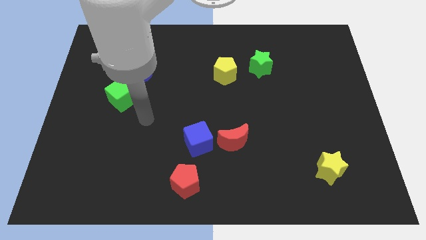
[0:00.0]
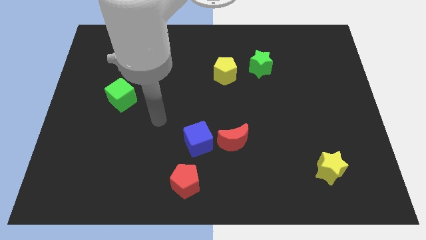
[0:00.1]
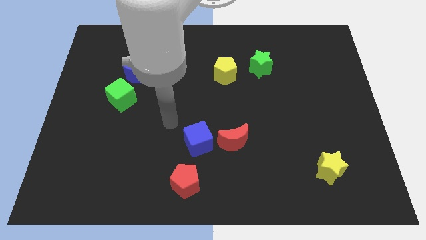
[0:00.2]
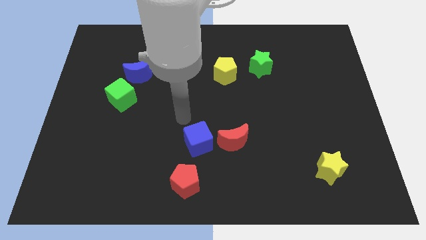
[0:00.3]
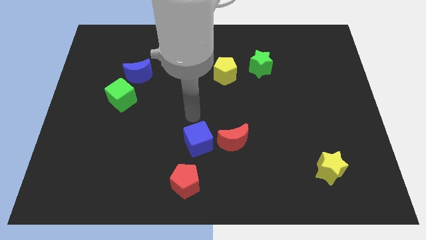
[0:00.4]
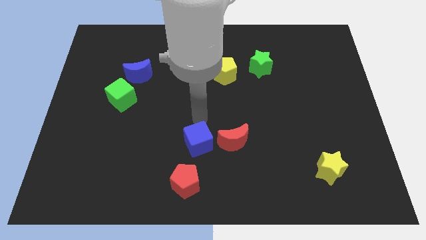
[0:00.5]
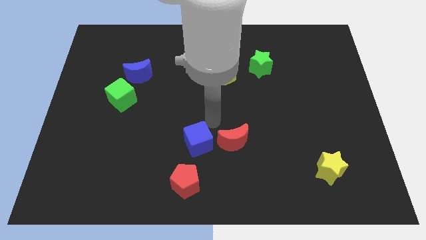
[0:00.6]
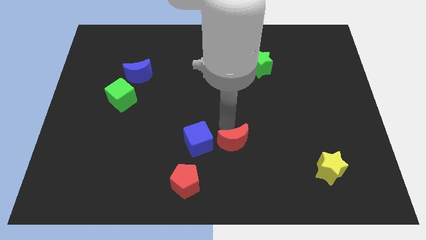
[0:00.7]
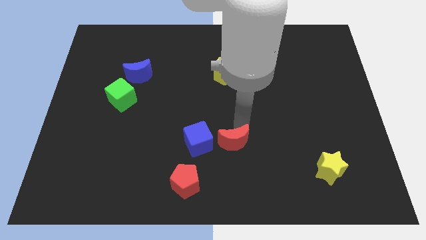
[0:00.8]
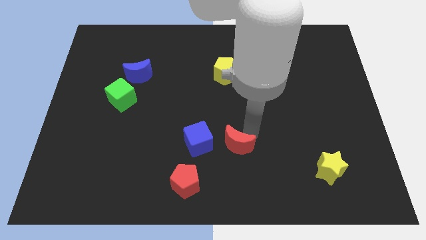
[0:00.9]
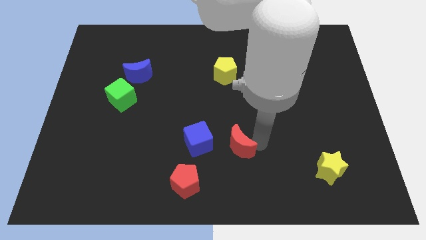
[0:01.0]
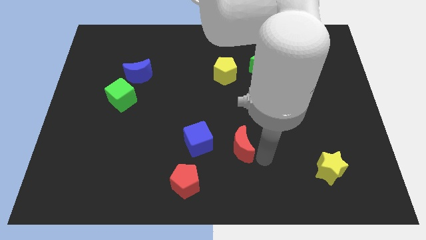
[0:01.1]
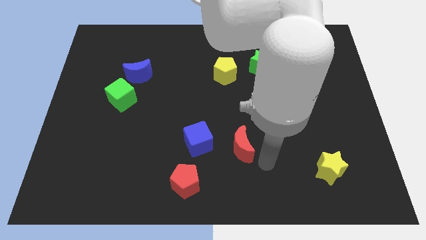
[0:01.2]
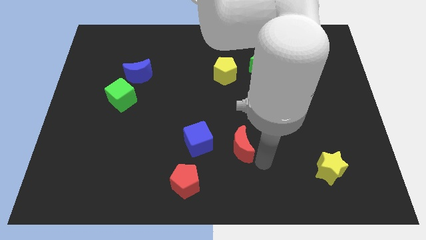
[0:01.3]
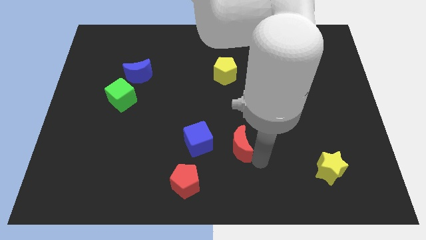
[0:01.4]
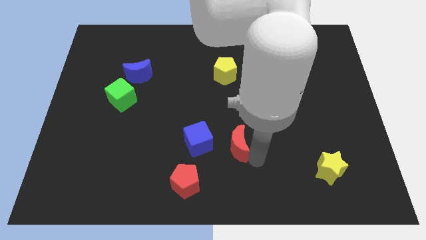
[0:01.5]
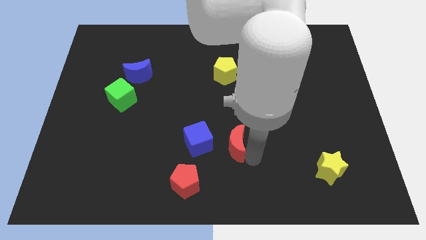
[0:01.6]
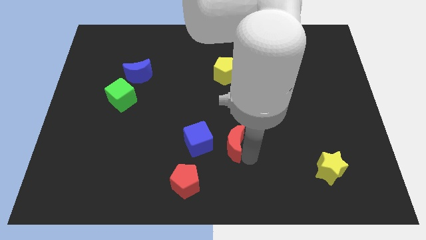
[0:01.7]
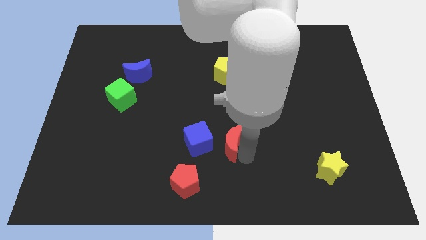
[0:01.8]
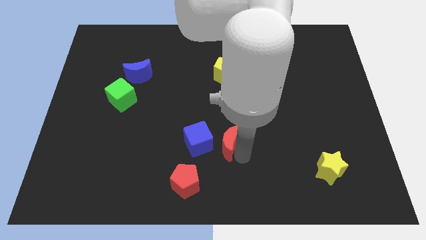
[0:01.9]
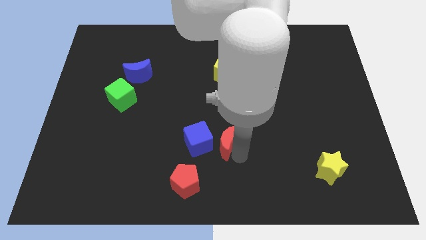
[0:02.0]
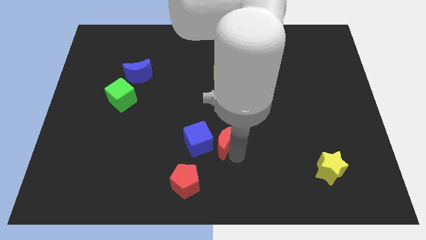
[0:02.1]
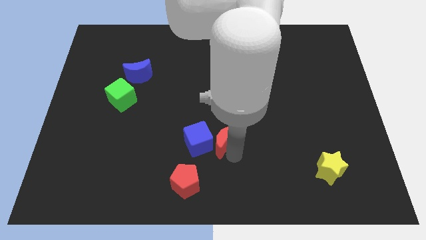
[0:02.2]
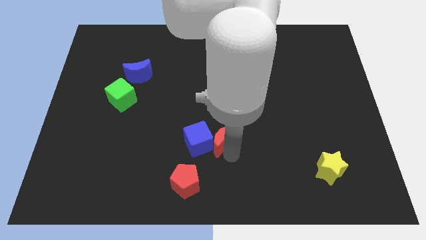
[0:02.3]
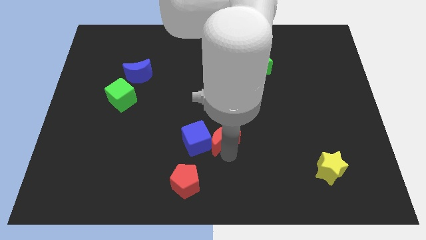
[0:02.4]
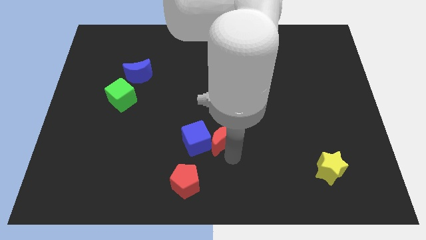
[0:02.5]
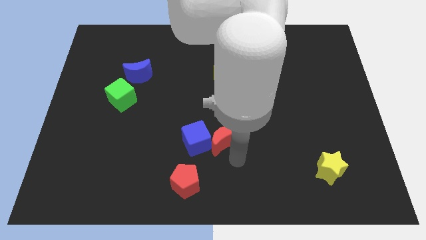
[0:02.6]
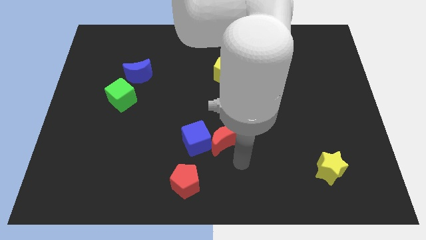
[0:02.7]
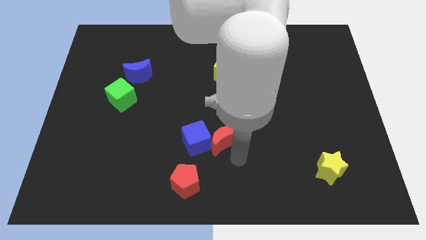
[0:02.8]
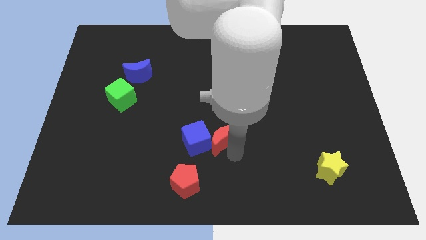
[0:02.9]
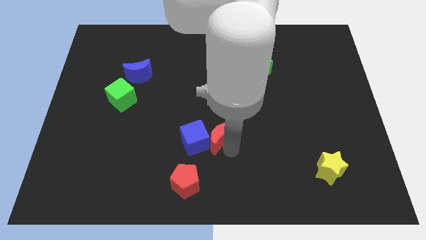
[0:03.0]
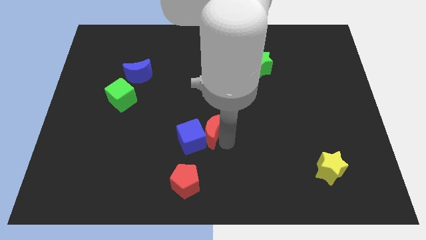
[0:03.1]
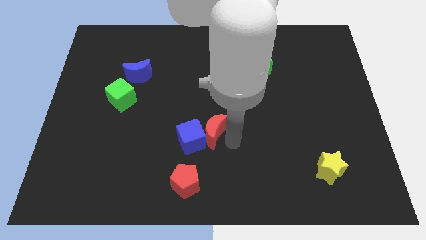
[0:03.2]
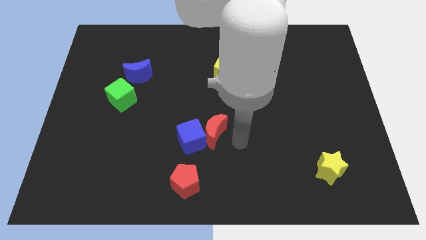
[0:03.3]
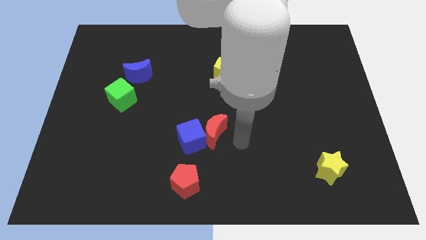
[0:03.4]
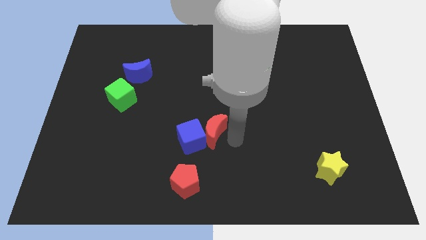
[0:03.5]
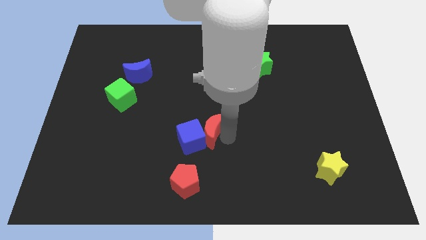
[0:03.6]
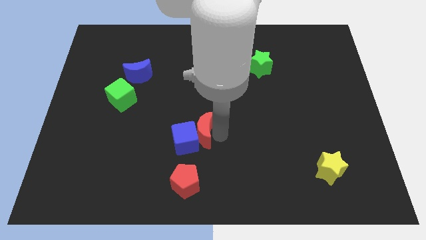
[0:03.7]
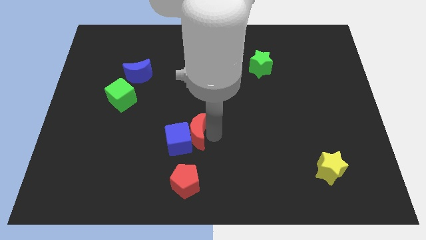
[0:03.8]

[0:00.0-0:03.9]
slide the red moon left slightly

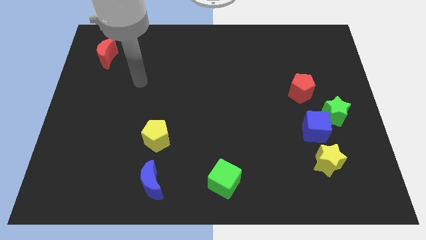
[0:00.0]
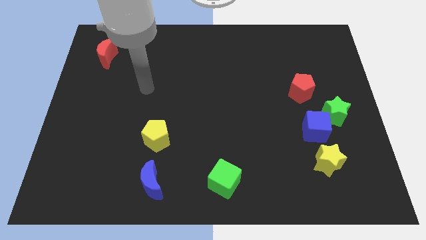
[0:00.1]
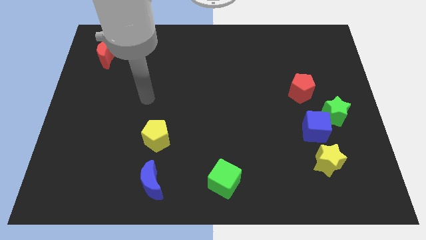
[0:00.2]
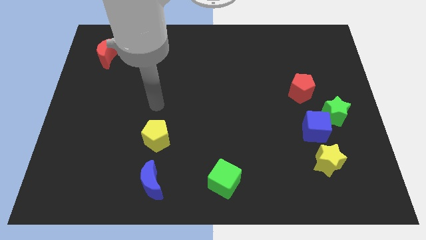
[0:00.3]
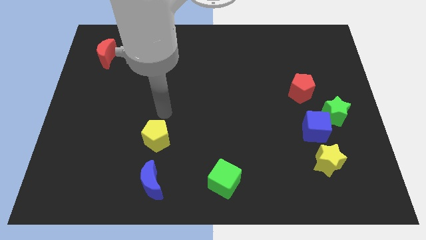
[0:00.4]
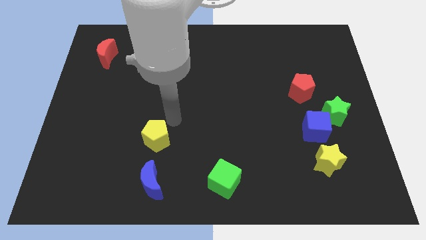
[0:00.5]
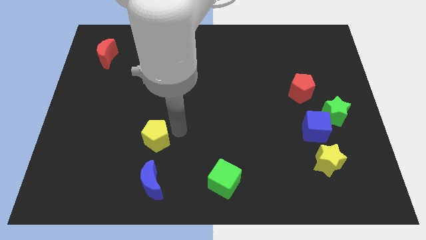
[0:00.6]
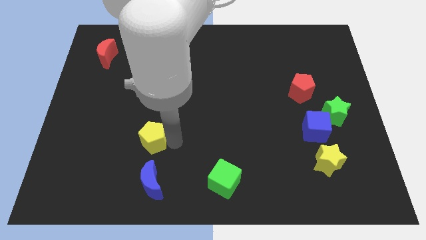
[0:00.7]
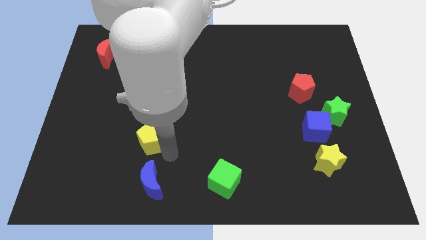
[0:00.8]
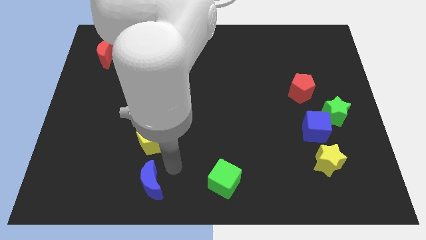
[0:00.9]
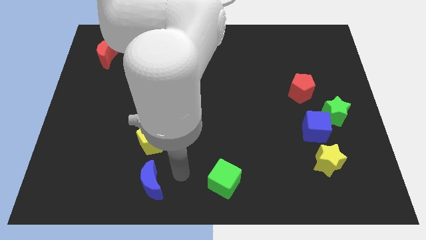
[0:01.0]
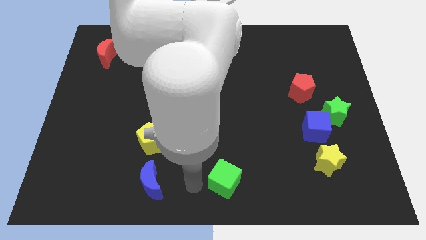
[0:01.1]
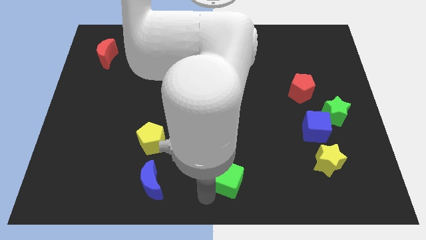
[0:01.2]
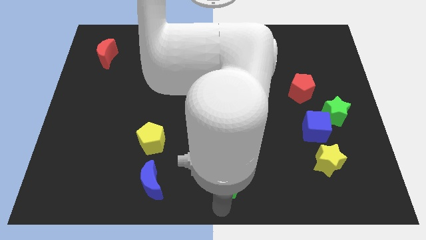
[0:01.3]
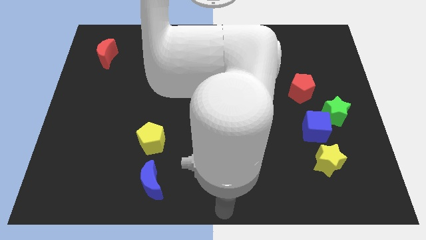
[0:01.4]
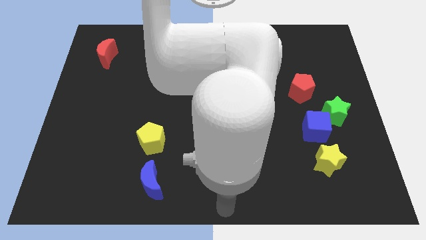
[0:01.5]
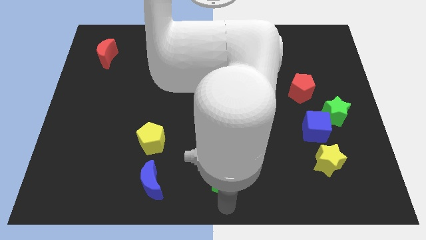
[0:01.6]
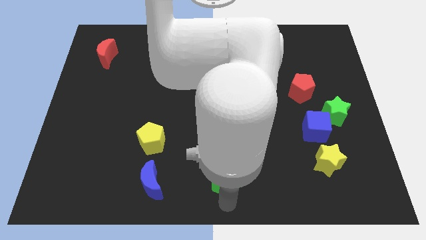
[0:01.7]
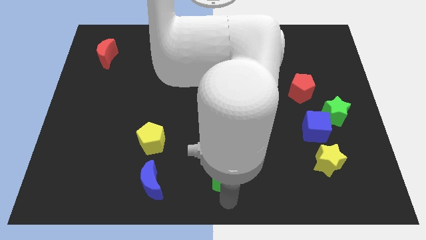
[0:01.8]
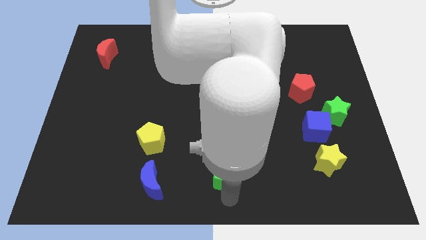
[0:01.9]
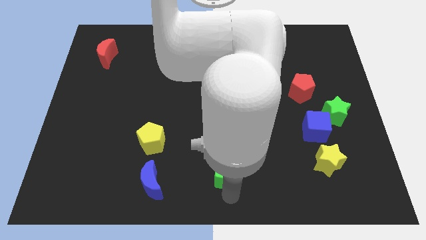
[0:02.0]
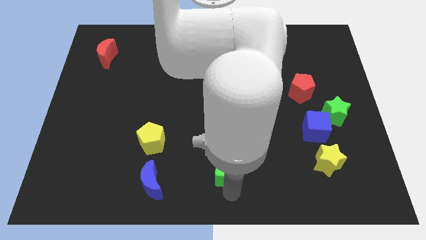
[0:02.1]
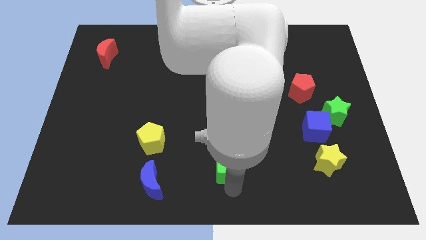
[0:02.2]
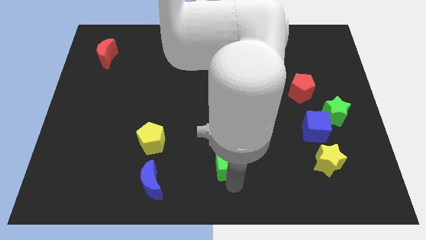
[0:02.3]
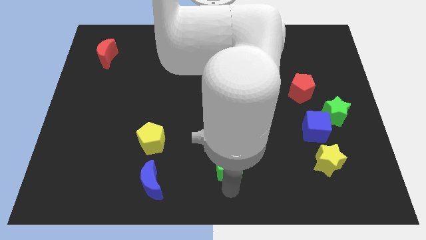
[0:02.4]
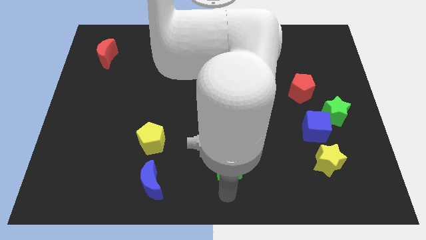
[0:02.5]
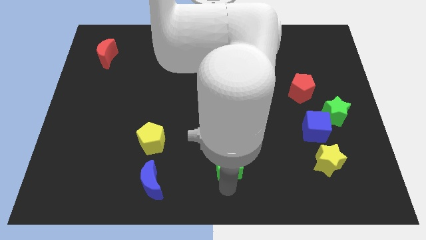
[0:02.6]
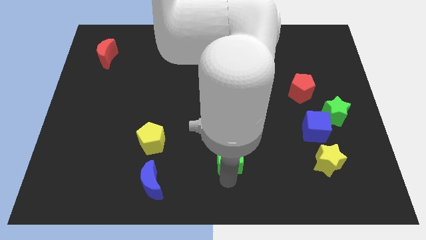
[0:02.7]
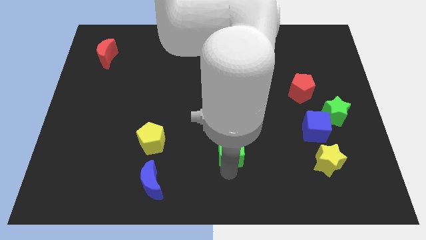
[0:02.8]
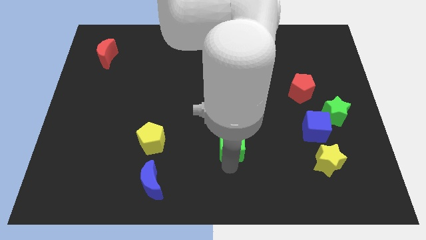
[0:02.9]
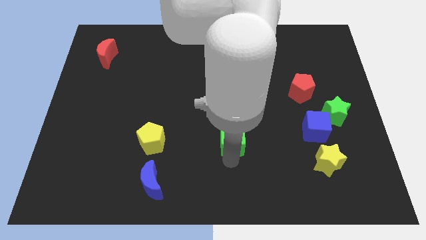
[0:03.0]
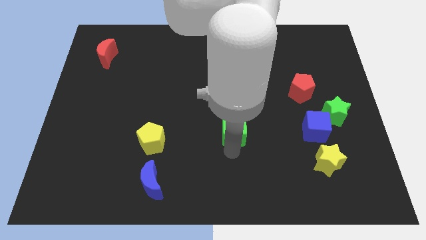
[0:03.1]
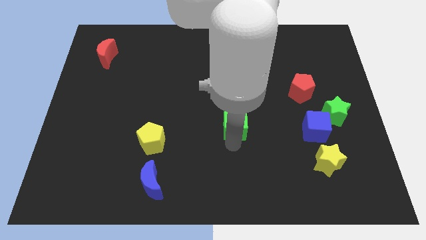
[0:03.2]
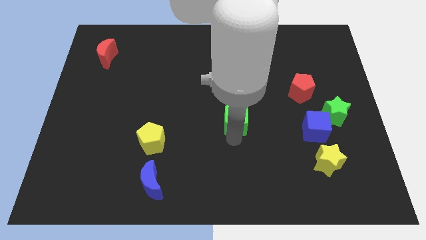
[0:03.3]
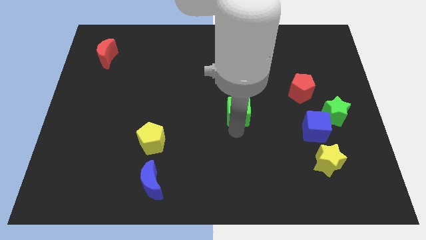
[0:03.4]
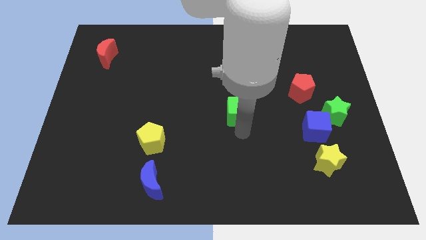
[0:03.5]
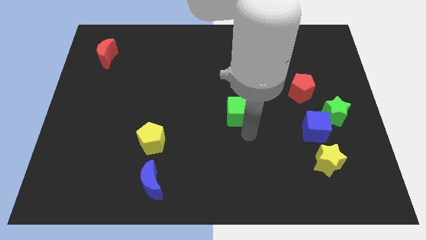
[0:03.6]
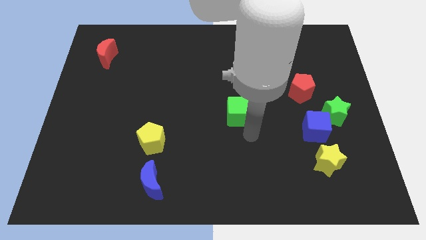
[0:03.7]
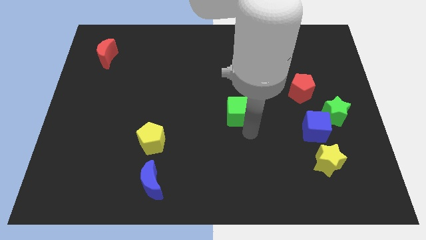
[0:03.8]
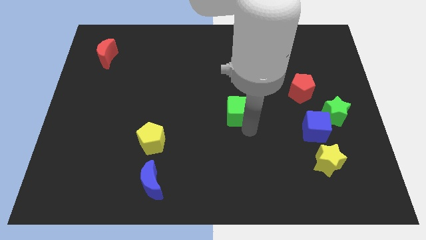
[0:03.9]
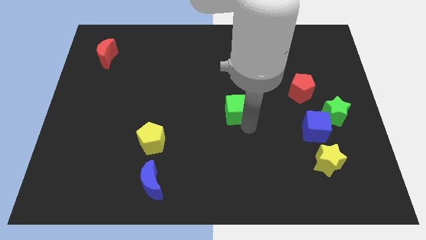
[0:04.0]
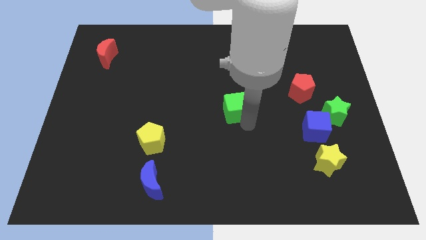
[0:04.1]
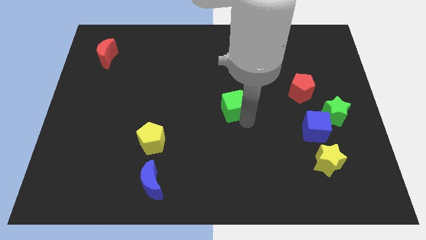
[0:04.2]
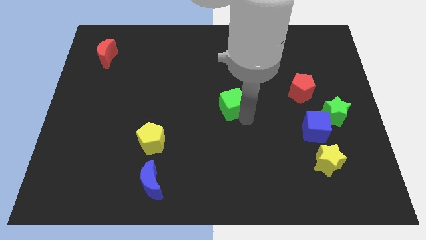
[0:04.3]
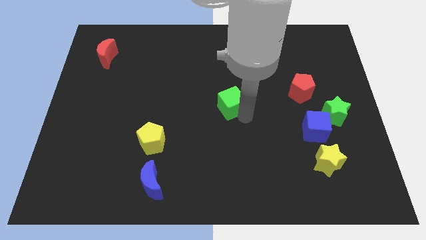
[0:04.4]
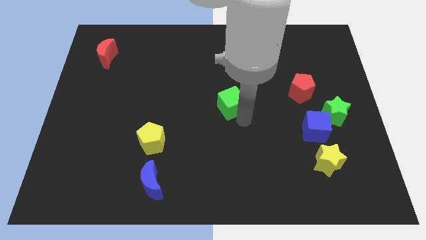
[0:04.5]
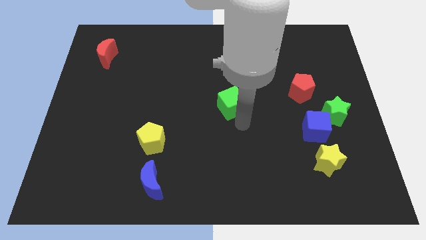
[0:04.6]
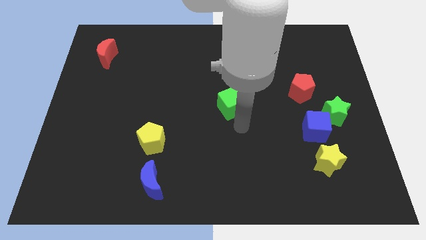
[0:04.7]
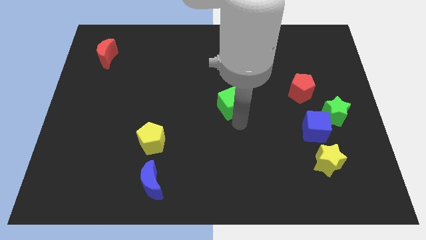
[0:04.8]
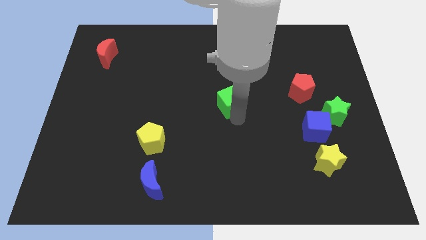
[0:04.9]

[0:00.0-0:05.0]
slide the green cube upwards
